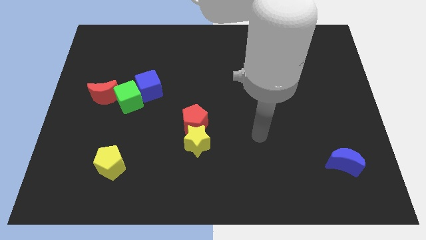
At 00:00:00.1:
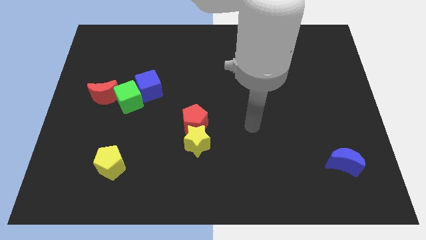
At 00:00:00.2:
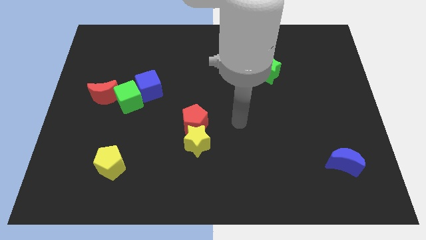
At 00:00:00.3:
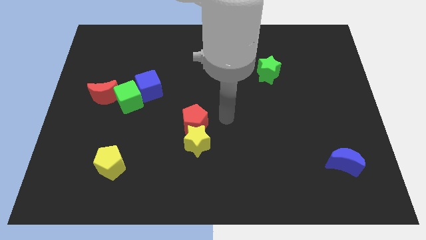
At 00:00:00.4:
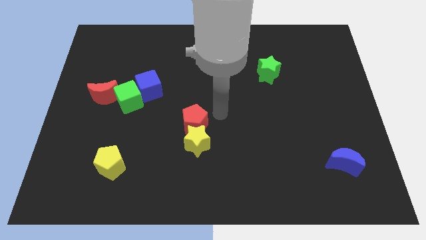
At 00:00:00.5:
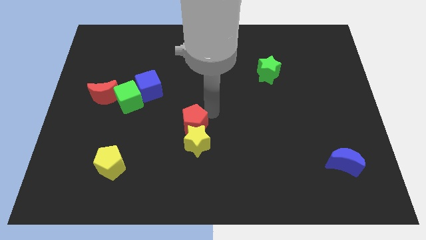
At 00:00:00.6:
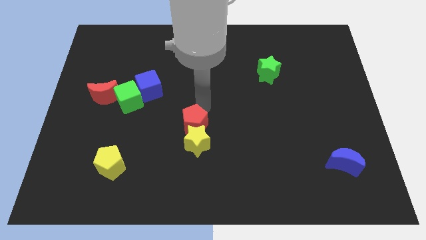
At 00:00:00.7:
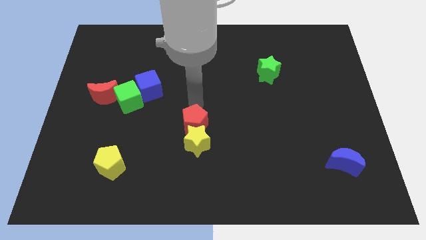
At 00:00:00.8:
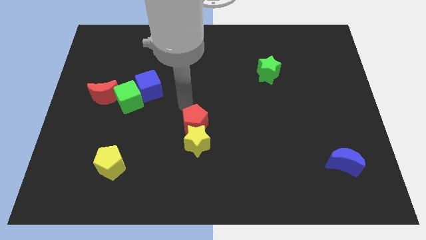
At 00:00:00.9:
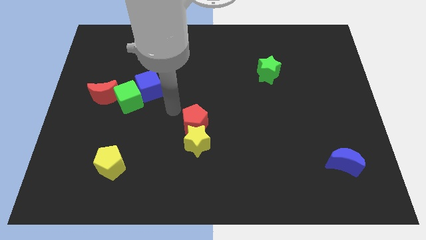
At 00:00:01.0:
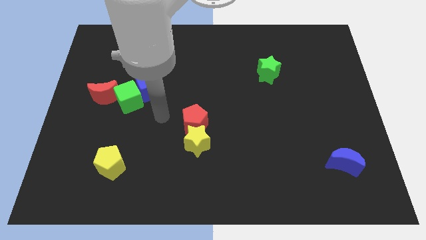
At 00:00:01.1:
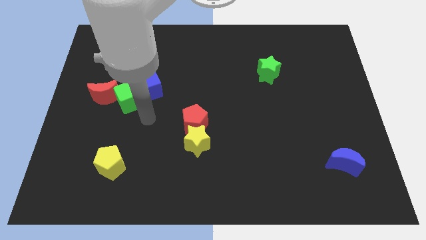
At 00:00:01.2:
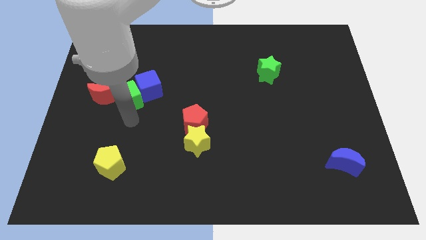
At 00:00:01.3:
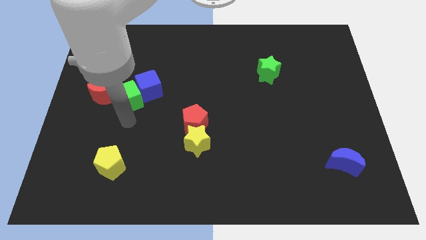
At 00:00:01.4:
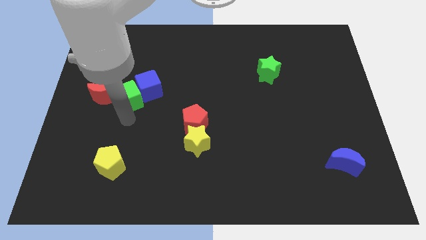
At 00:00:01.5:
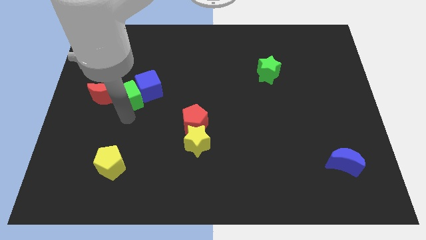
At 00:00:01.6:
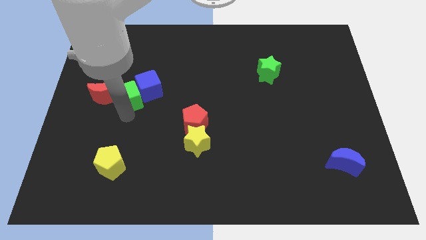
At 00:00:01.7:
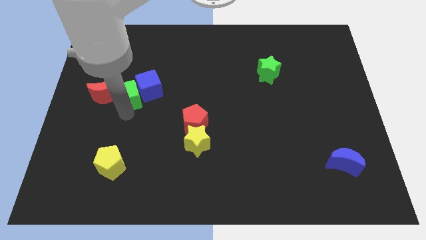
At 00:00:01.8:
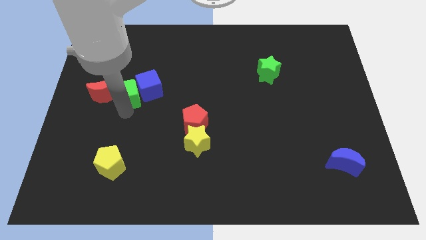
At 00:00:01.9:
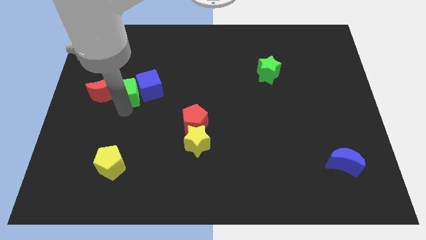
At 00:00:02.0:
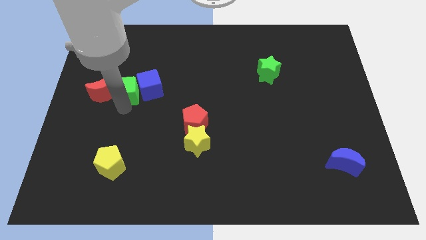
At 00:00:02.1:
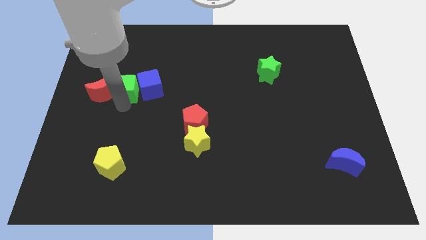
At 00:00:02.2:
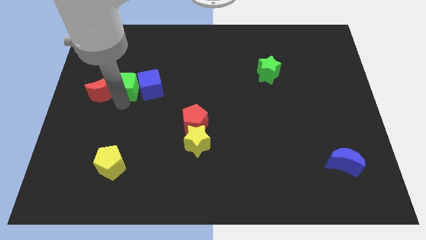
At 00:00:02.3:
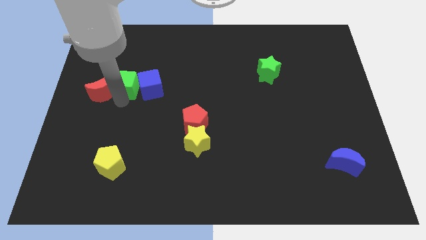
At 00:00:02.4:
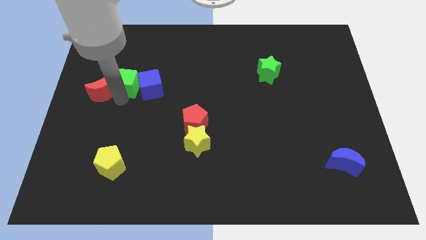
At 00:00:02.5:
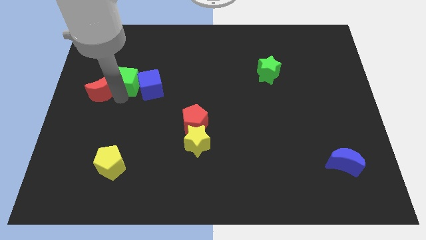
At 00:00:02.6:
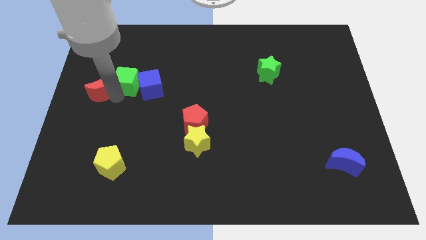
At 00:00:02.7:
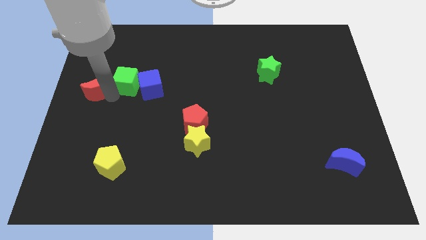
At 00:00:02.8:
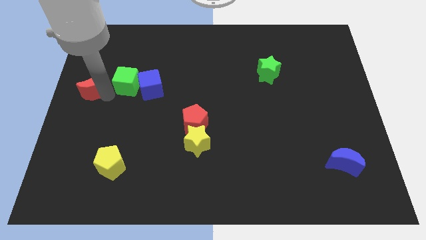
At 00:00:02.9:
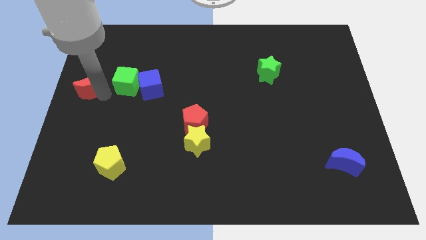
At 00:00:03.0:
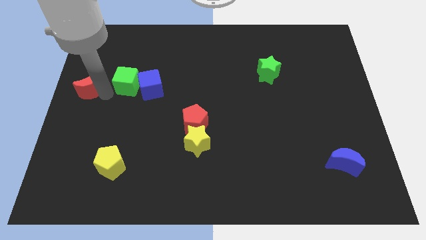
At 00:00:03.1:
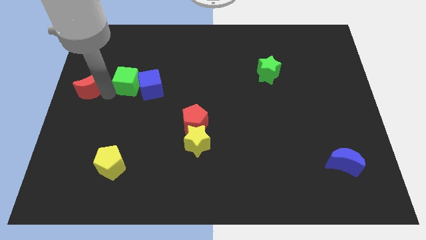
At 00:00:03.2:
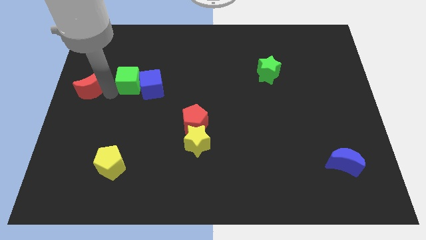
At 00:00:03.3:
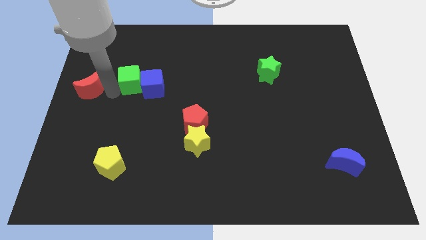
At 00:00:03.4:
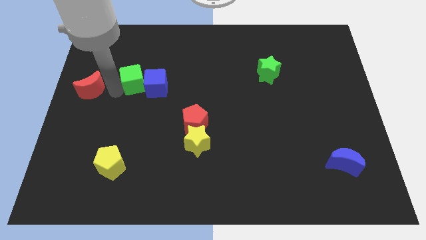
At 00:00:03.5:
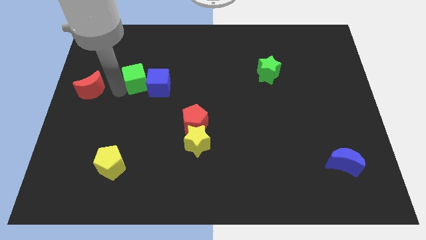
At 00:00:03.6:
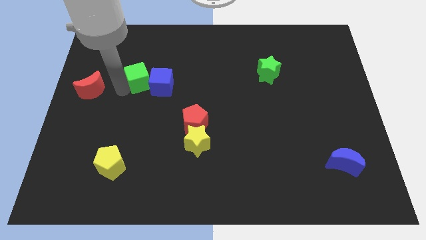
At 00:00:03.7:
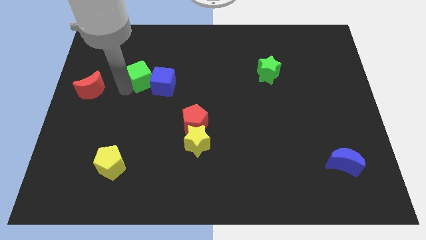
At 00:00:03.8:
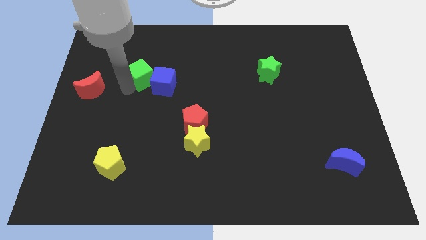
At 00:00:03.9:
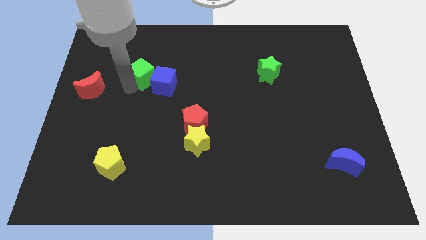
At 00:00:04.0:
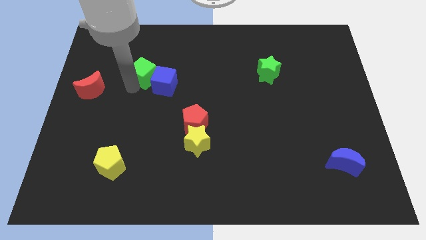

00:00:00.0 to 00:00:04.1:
push the green cube a bit up and right

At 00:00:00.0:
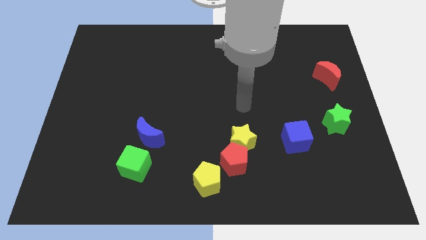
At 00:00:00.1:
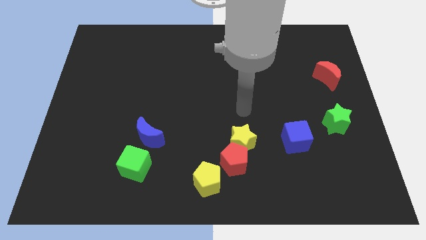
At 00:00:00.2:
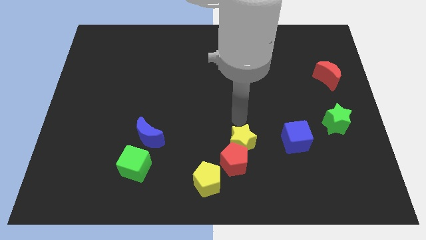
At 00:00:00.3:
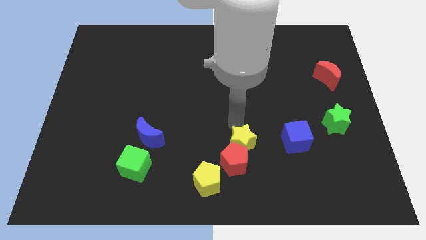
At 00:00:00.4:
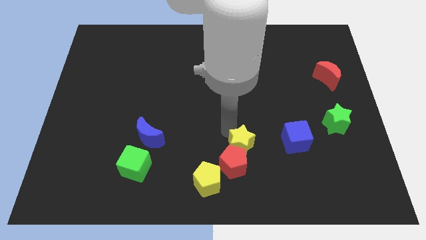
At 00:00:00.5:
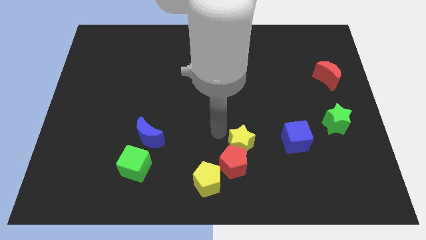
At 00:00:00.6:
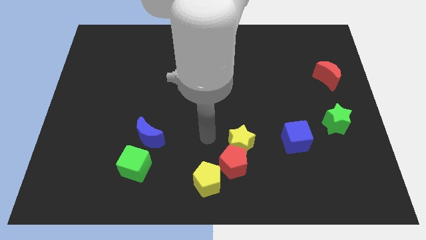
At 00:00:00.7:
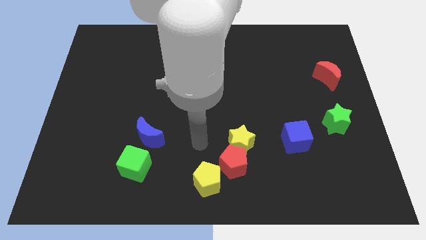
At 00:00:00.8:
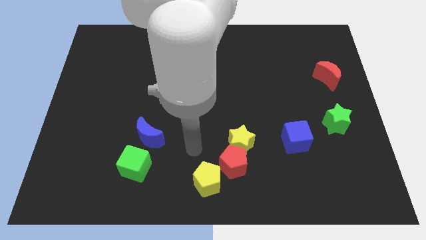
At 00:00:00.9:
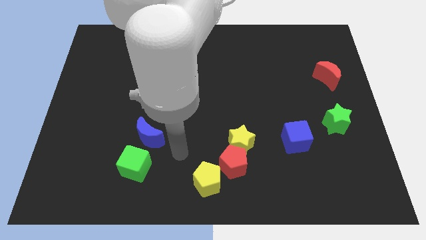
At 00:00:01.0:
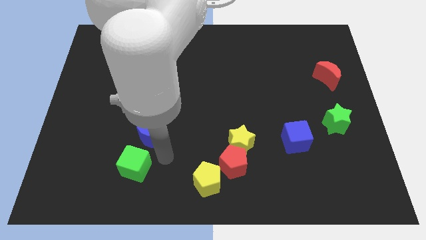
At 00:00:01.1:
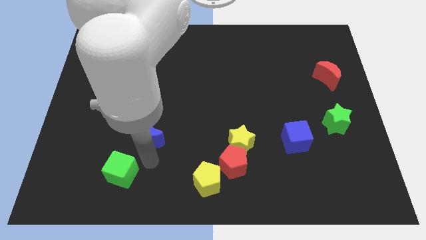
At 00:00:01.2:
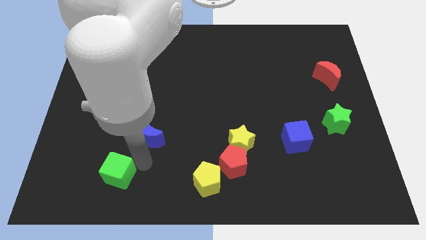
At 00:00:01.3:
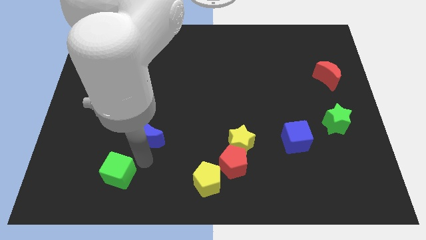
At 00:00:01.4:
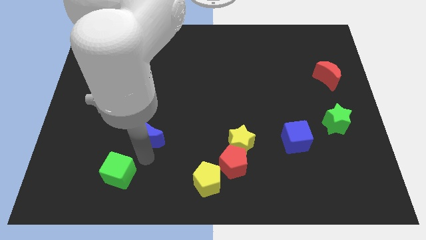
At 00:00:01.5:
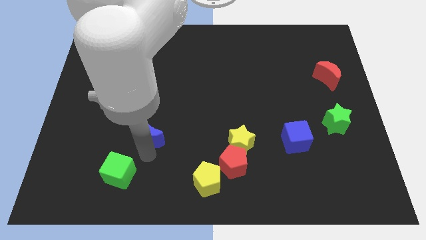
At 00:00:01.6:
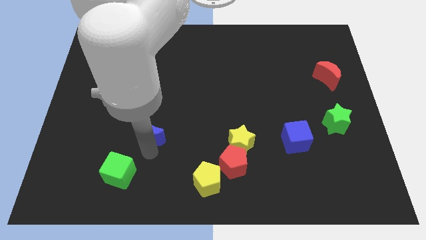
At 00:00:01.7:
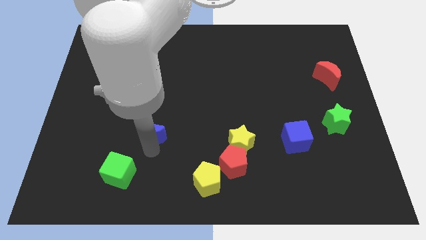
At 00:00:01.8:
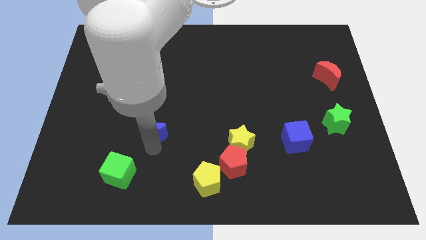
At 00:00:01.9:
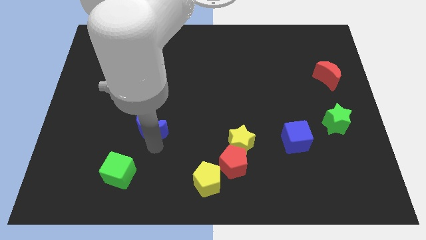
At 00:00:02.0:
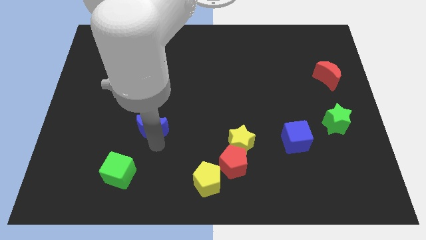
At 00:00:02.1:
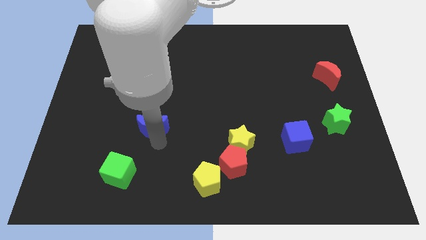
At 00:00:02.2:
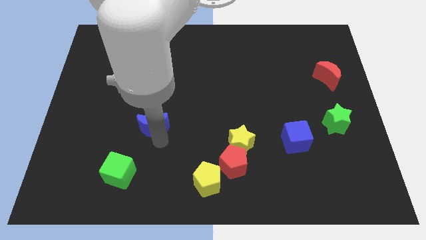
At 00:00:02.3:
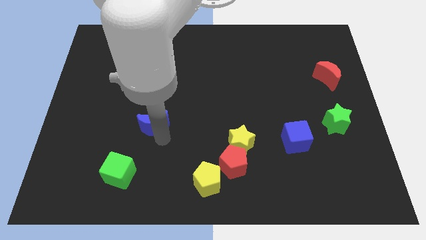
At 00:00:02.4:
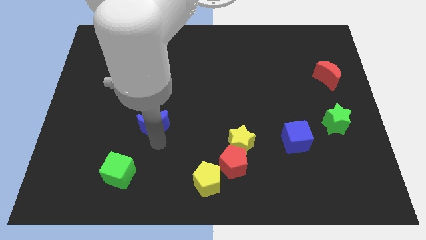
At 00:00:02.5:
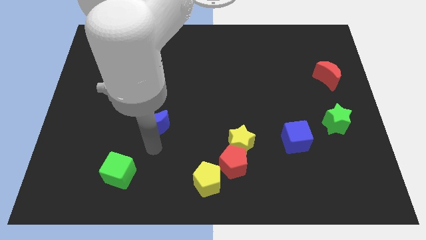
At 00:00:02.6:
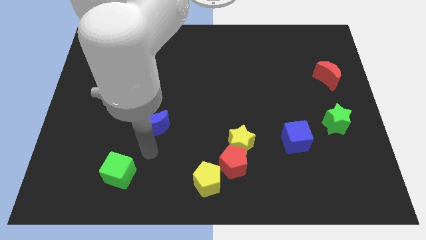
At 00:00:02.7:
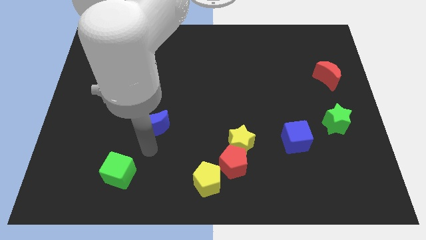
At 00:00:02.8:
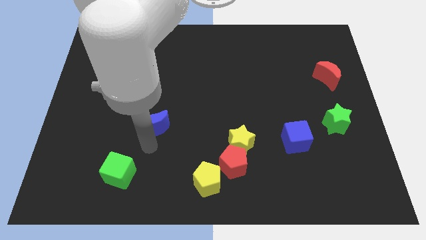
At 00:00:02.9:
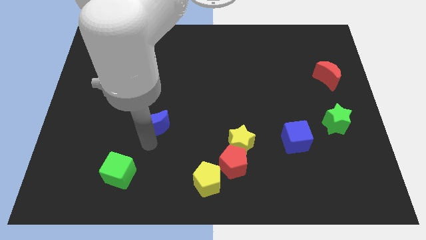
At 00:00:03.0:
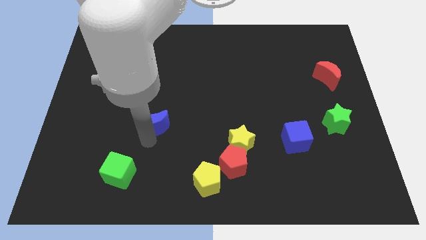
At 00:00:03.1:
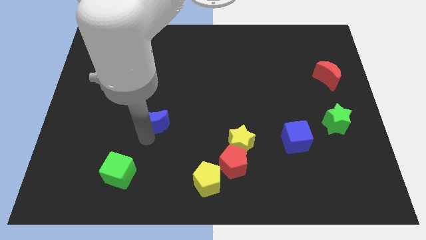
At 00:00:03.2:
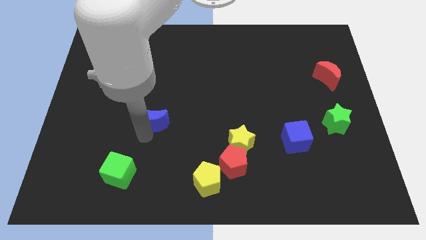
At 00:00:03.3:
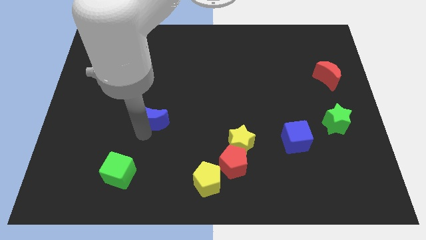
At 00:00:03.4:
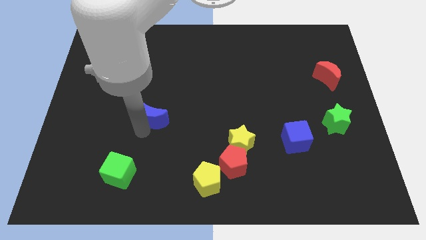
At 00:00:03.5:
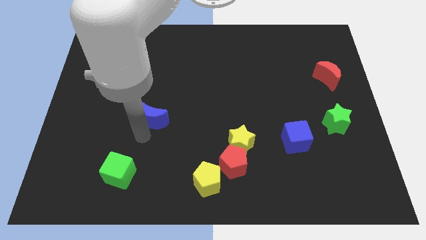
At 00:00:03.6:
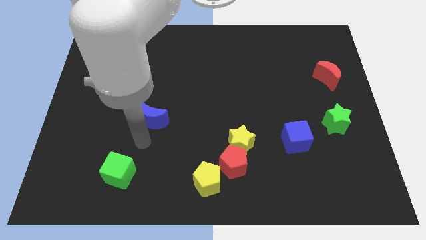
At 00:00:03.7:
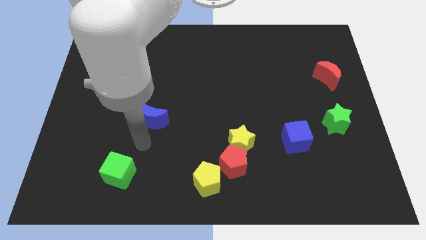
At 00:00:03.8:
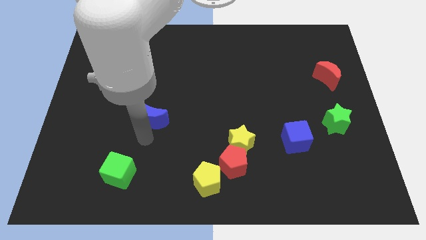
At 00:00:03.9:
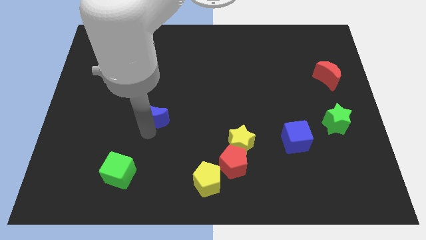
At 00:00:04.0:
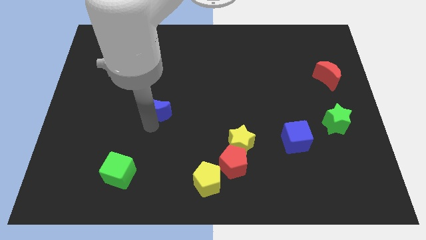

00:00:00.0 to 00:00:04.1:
push the blue moon upwards a bit
